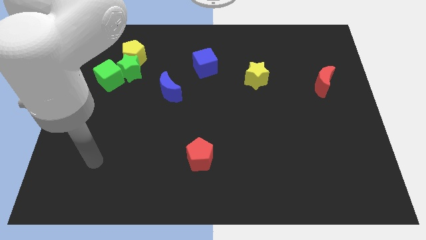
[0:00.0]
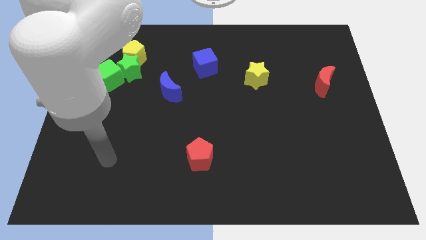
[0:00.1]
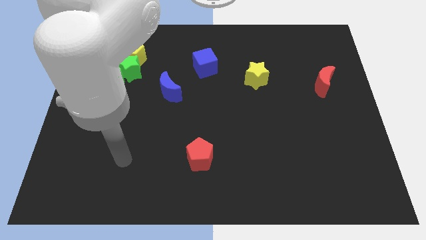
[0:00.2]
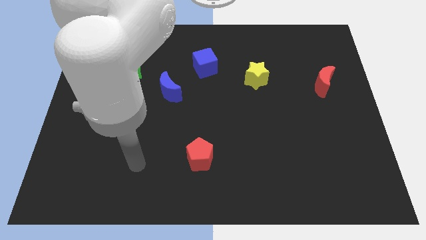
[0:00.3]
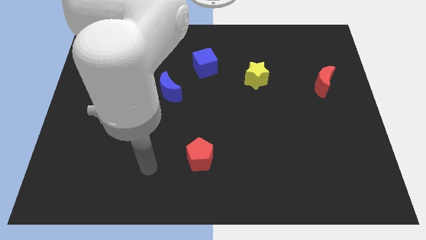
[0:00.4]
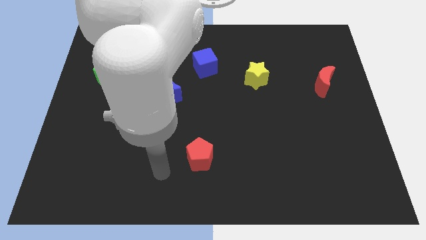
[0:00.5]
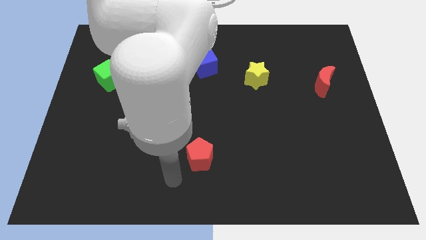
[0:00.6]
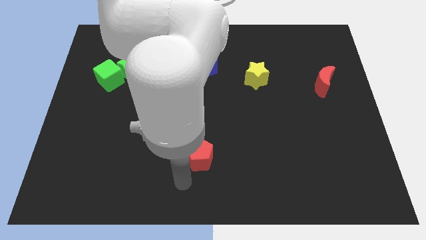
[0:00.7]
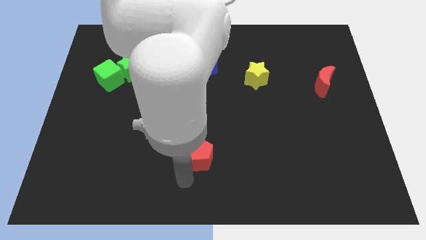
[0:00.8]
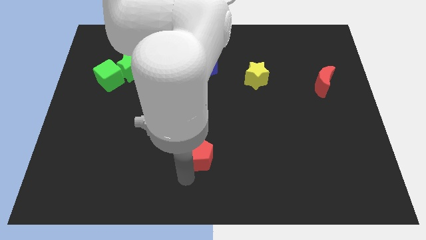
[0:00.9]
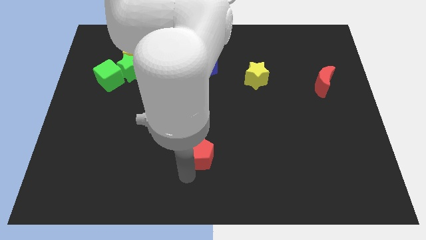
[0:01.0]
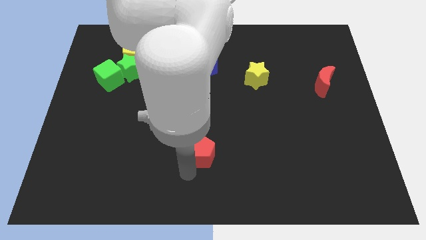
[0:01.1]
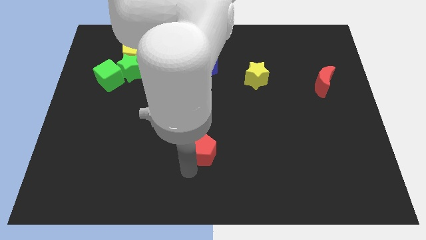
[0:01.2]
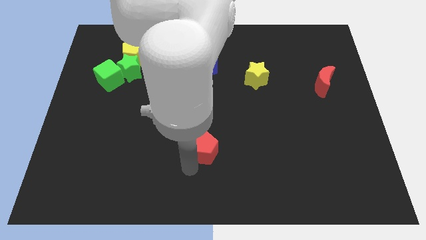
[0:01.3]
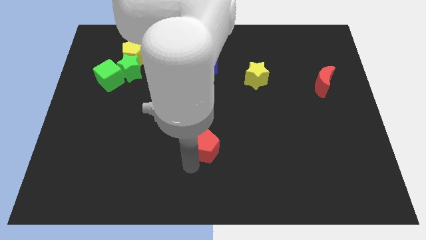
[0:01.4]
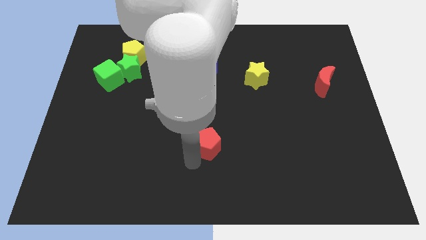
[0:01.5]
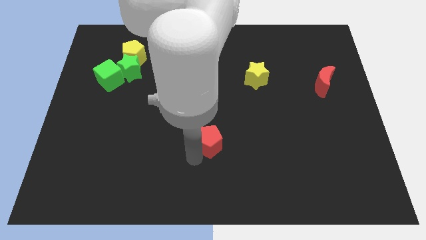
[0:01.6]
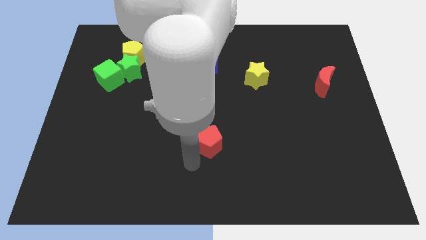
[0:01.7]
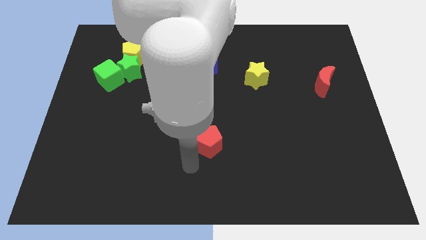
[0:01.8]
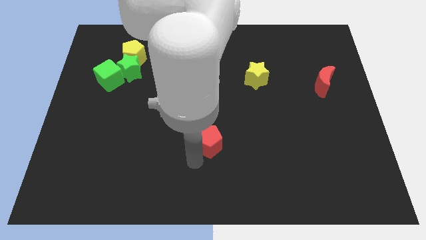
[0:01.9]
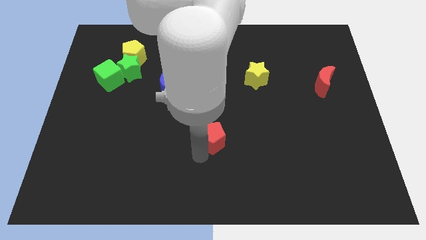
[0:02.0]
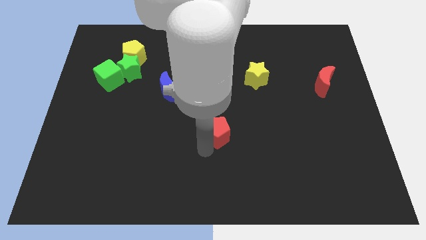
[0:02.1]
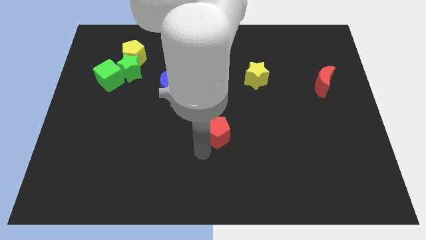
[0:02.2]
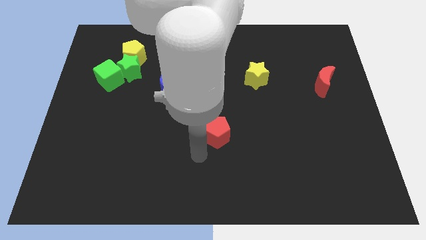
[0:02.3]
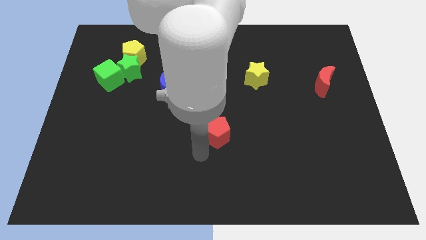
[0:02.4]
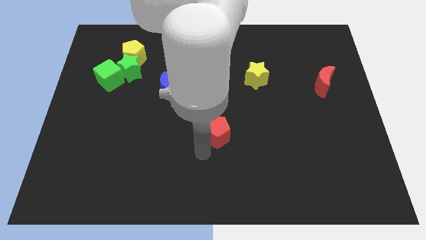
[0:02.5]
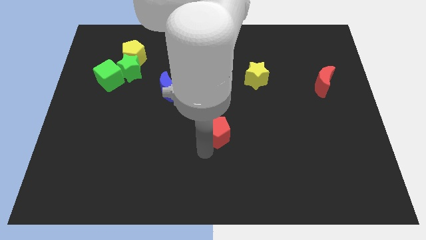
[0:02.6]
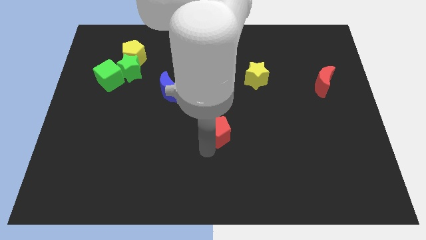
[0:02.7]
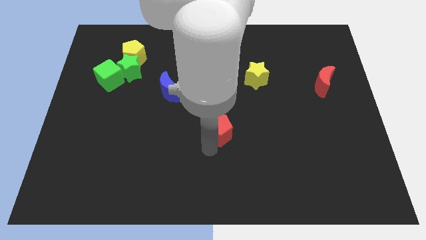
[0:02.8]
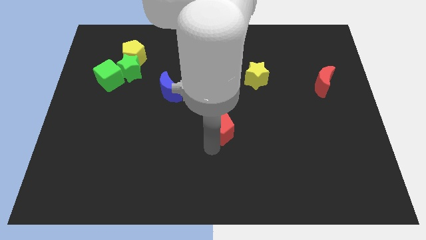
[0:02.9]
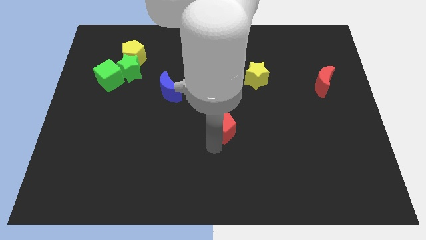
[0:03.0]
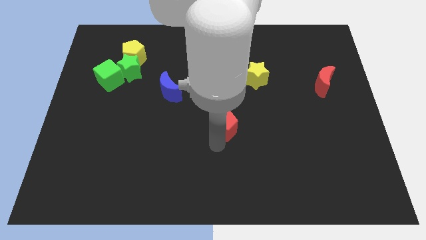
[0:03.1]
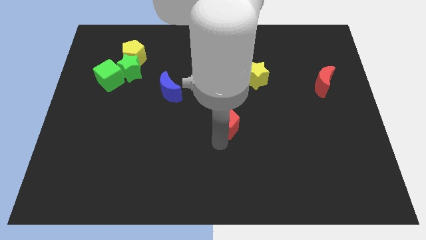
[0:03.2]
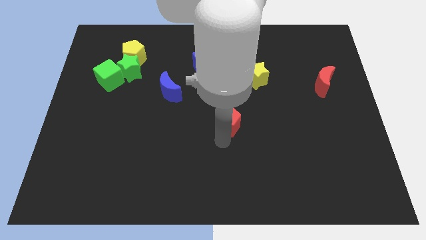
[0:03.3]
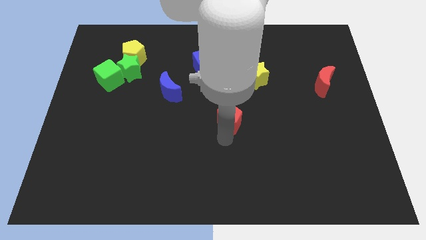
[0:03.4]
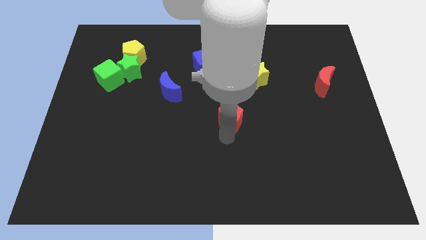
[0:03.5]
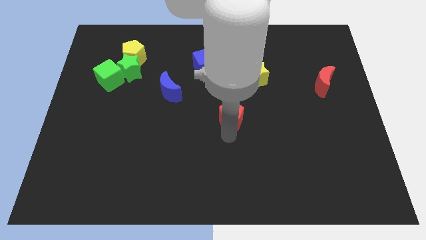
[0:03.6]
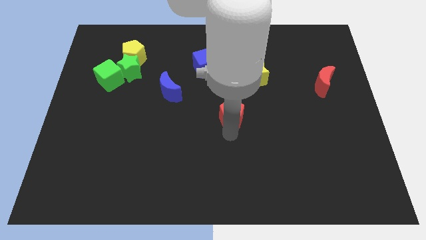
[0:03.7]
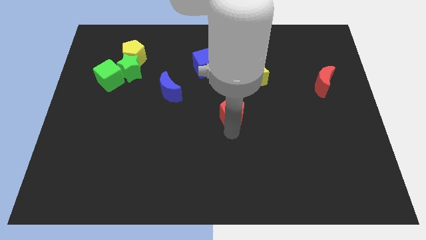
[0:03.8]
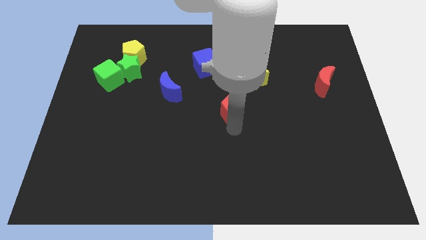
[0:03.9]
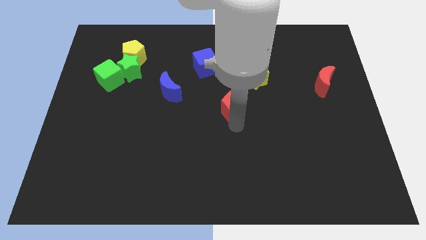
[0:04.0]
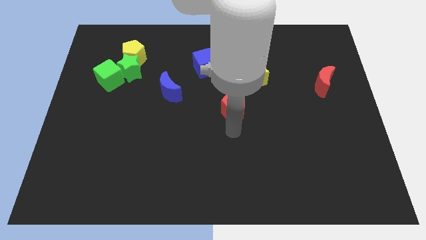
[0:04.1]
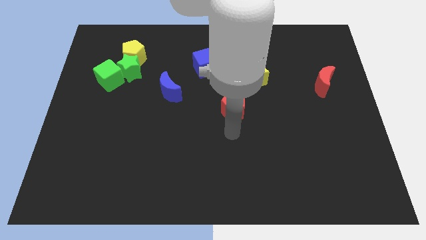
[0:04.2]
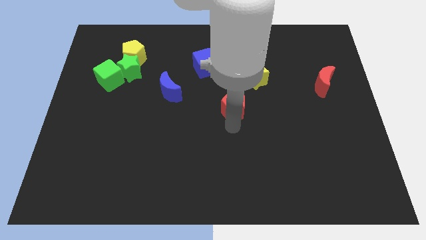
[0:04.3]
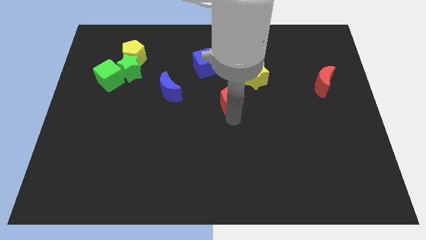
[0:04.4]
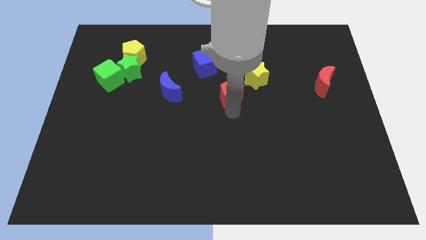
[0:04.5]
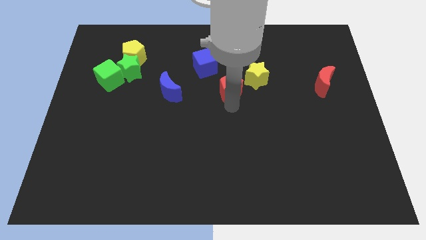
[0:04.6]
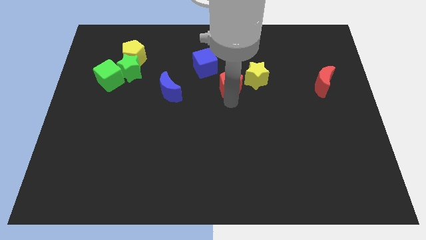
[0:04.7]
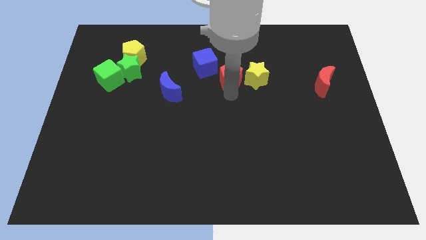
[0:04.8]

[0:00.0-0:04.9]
push the red pentagon diagonally up and to the left of the yellow star

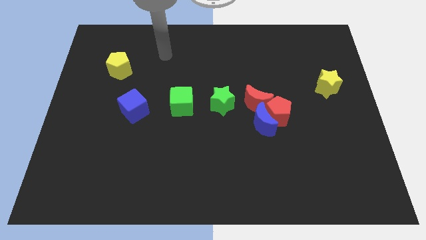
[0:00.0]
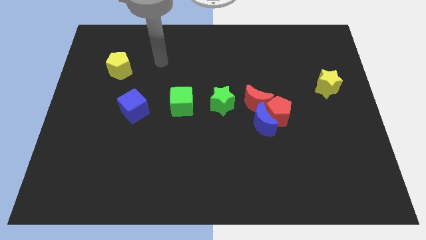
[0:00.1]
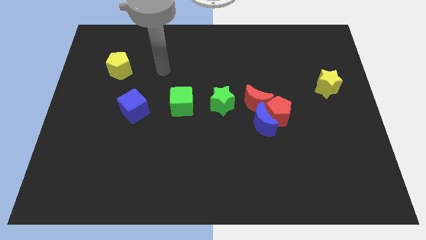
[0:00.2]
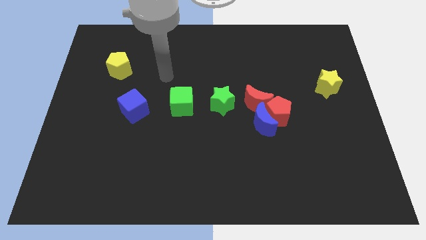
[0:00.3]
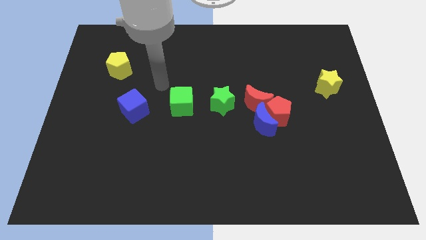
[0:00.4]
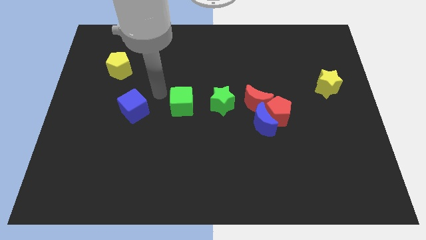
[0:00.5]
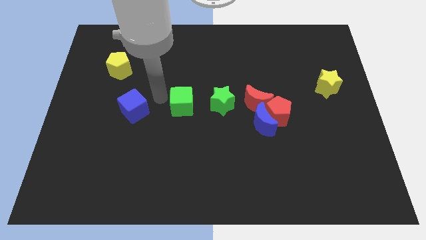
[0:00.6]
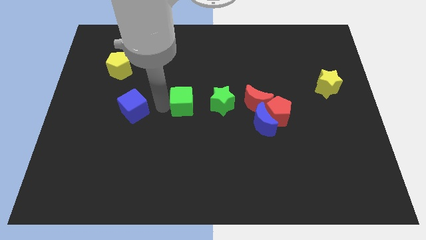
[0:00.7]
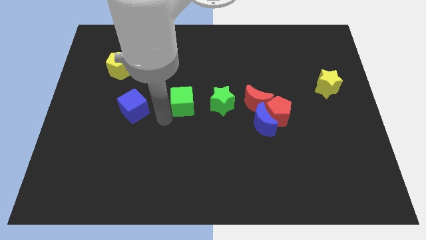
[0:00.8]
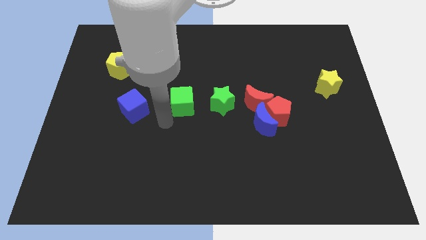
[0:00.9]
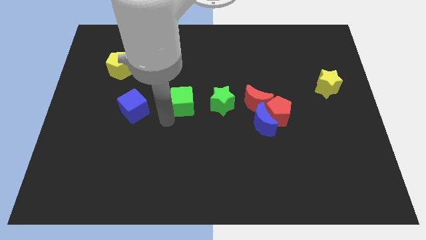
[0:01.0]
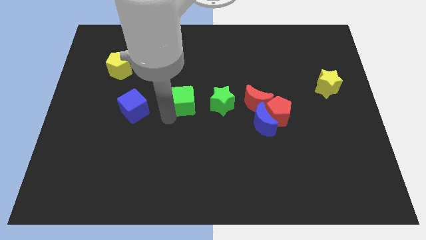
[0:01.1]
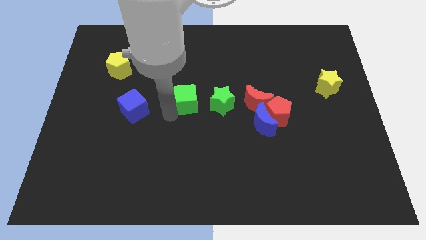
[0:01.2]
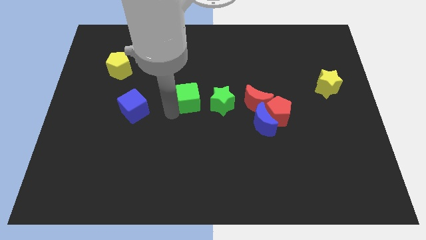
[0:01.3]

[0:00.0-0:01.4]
slide the green cube diagonally up and to the left of the green star

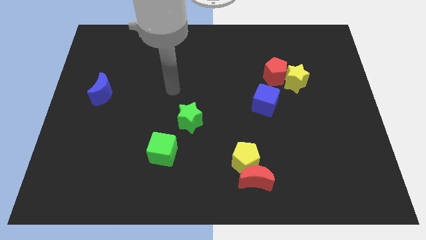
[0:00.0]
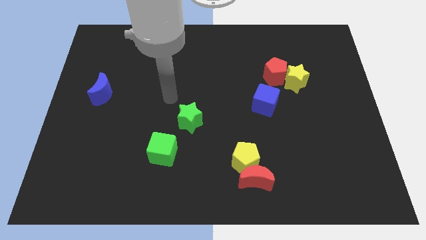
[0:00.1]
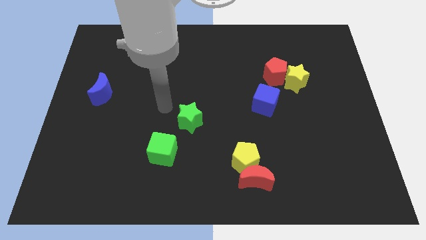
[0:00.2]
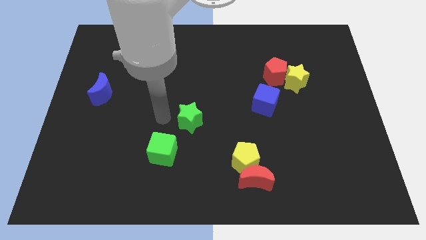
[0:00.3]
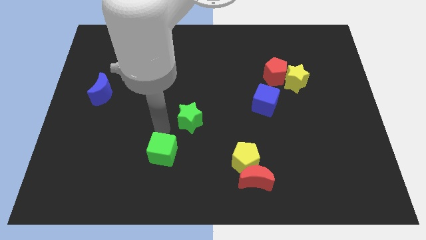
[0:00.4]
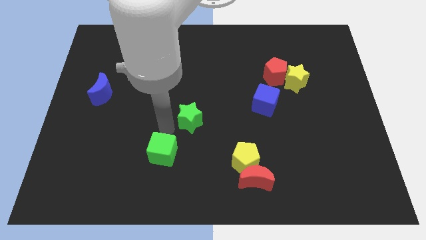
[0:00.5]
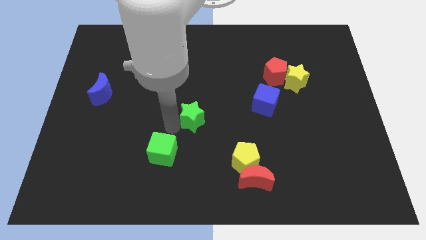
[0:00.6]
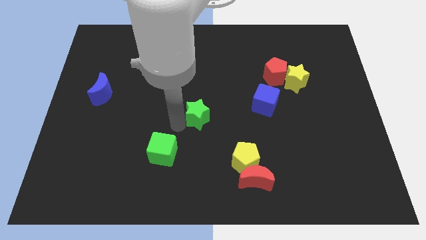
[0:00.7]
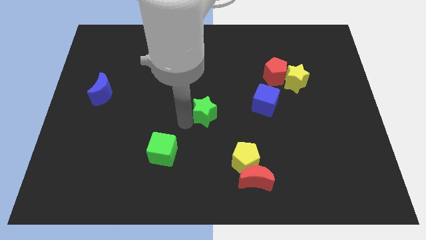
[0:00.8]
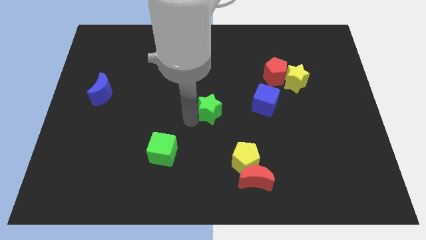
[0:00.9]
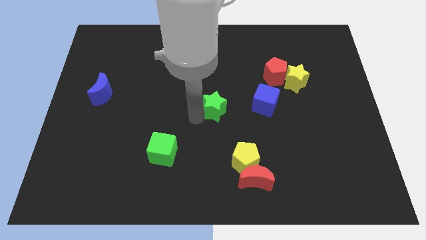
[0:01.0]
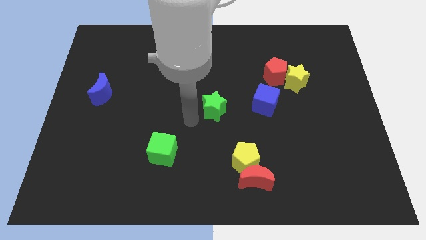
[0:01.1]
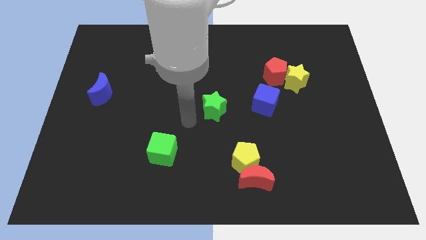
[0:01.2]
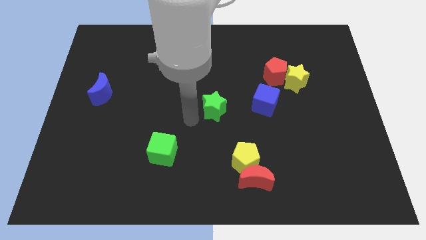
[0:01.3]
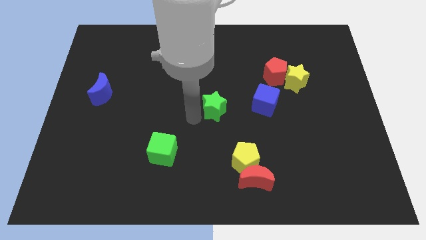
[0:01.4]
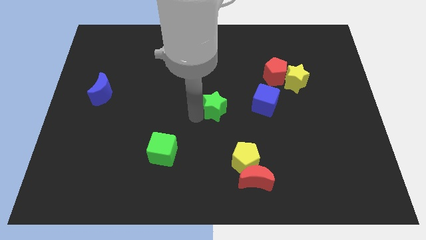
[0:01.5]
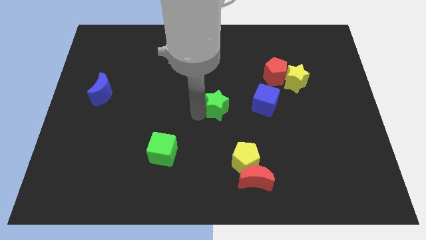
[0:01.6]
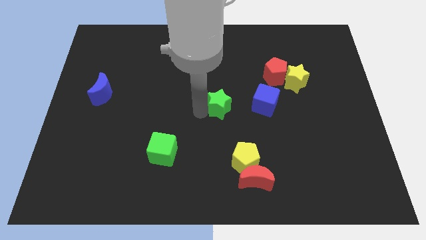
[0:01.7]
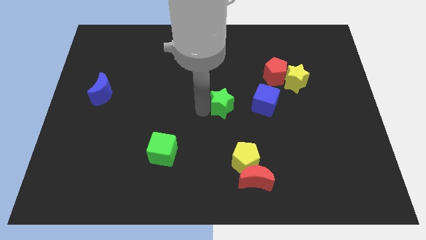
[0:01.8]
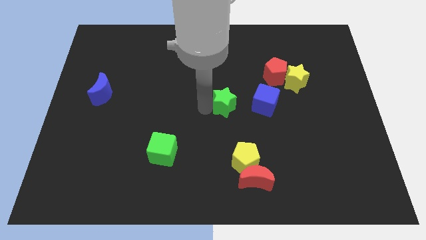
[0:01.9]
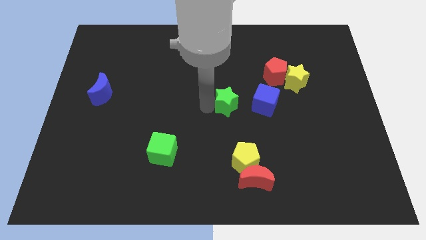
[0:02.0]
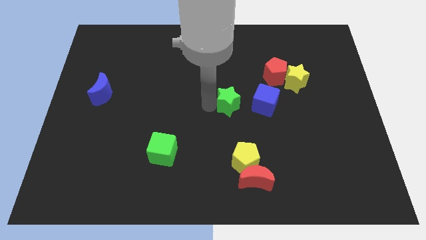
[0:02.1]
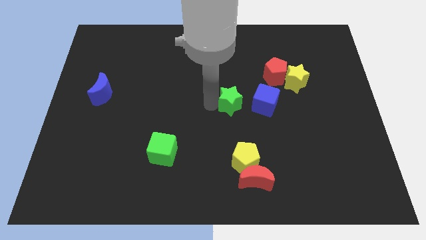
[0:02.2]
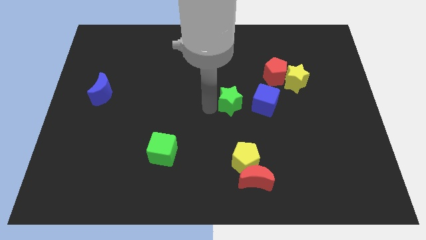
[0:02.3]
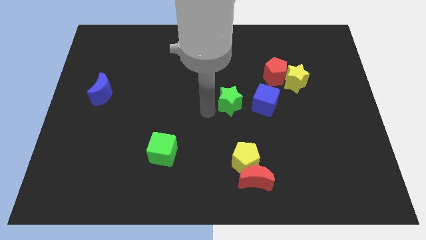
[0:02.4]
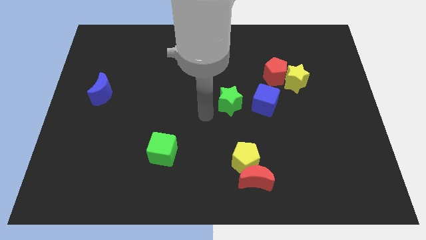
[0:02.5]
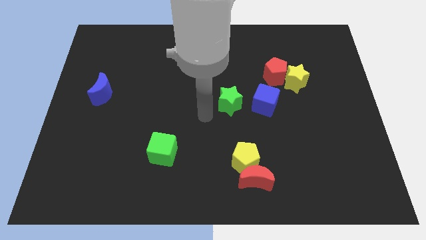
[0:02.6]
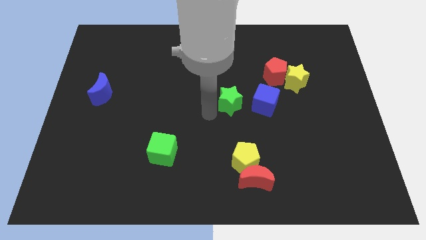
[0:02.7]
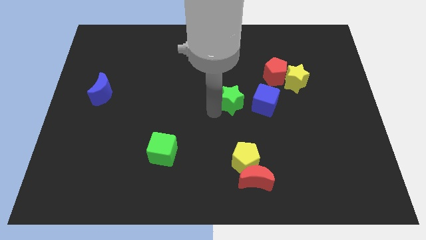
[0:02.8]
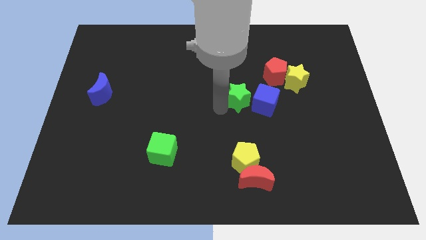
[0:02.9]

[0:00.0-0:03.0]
push the green star diagonally down and to the left of the red pentagon
